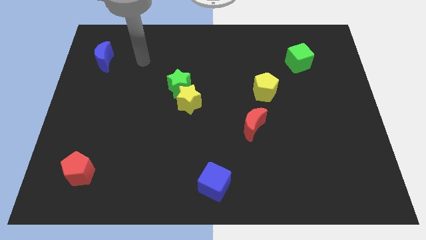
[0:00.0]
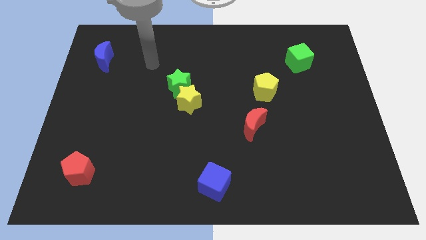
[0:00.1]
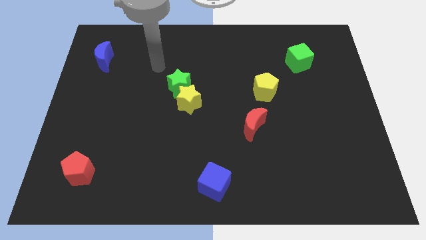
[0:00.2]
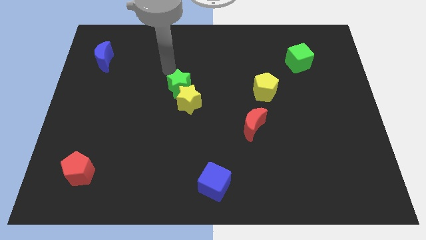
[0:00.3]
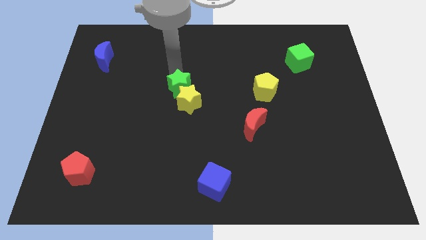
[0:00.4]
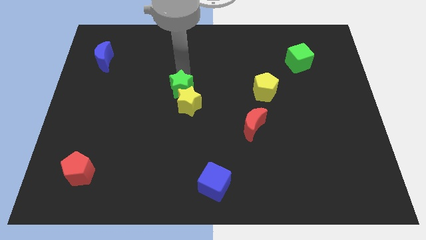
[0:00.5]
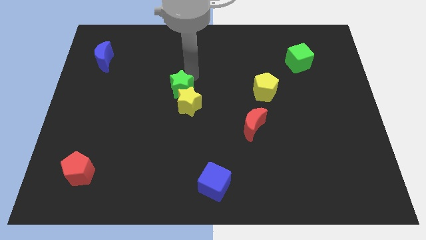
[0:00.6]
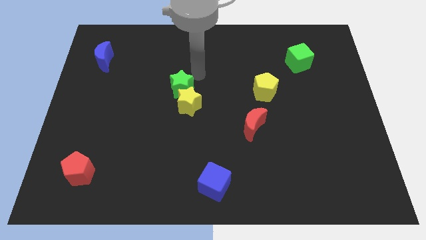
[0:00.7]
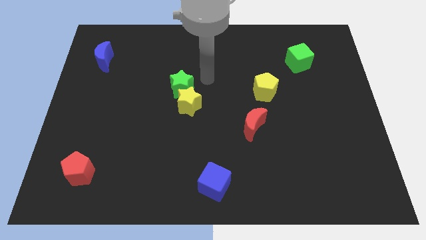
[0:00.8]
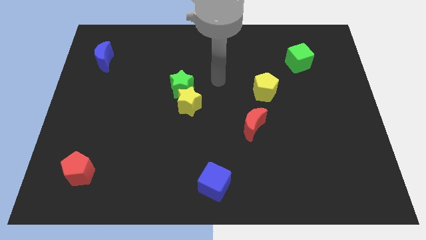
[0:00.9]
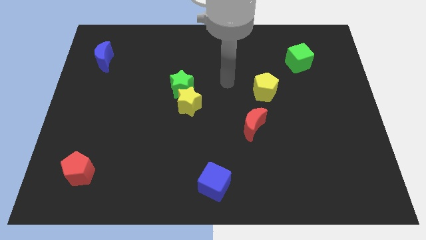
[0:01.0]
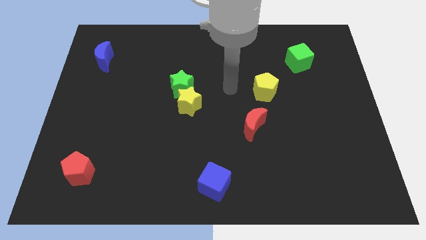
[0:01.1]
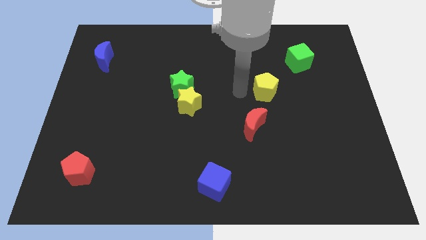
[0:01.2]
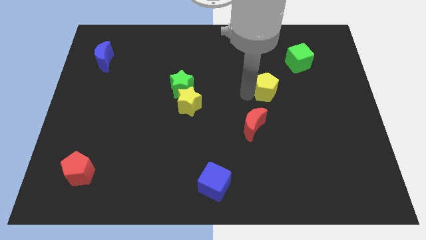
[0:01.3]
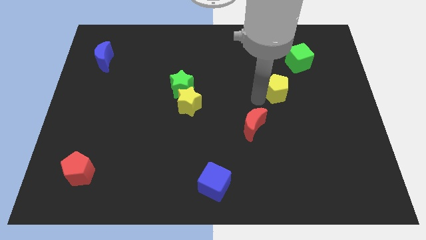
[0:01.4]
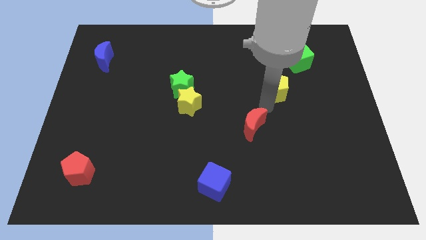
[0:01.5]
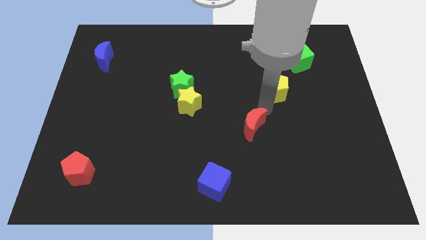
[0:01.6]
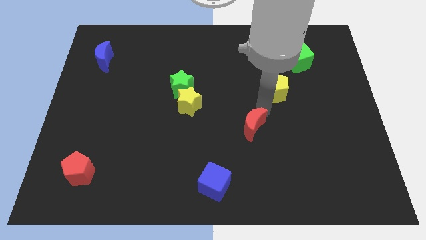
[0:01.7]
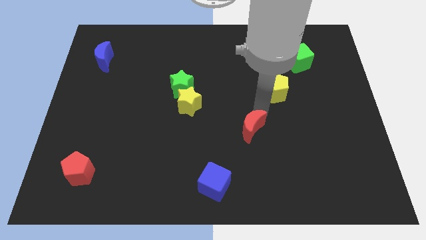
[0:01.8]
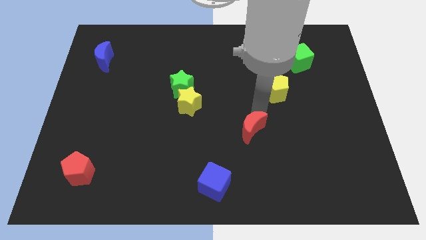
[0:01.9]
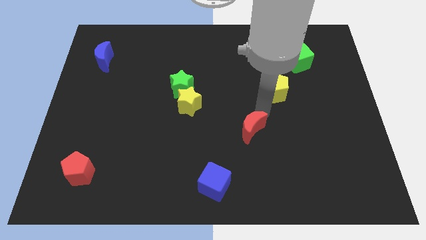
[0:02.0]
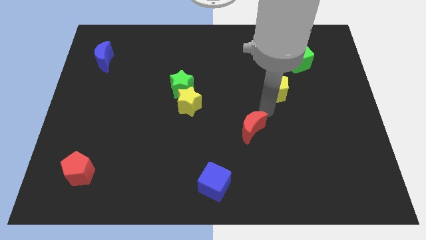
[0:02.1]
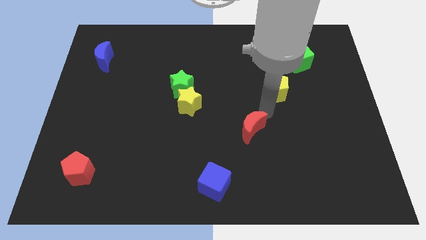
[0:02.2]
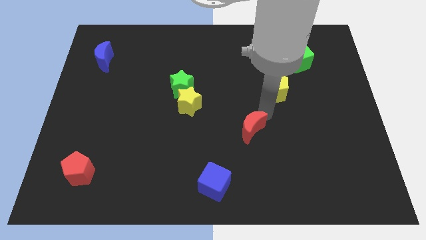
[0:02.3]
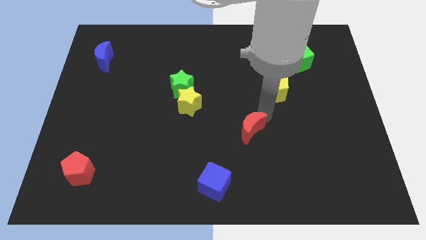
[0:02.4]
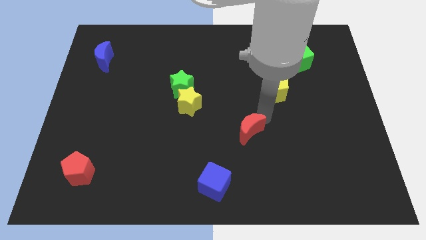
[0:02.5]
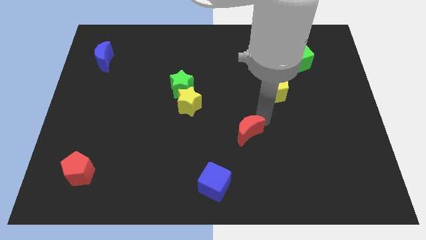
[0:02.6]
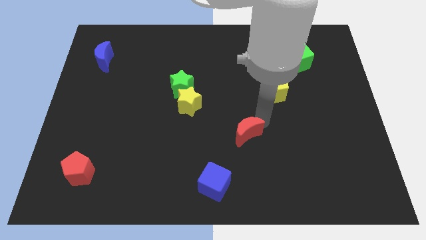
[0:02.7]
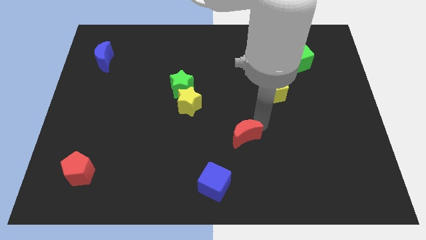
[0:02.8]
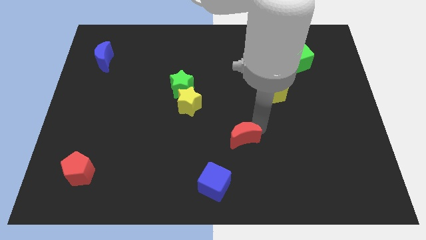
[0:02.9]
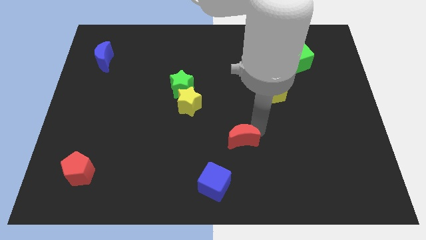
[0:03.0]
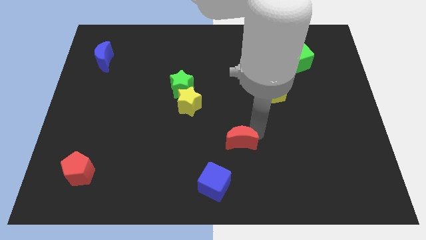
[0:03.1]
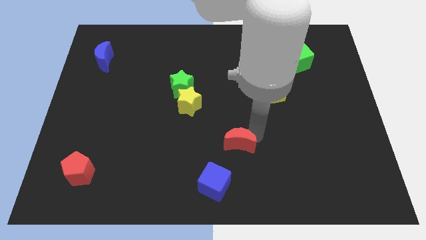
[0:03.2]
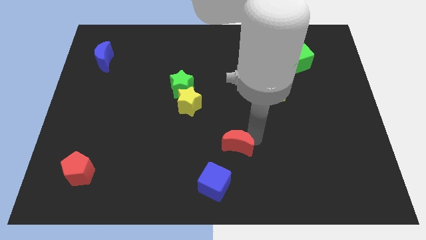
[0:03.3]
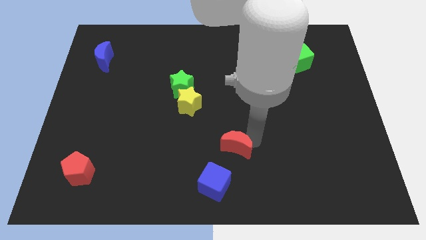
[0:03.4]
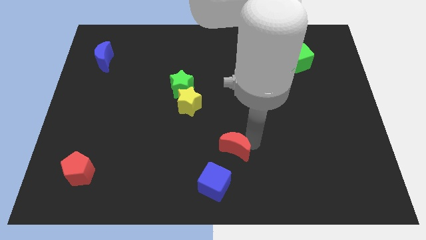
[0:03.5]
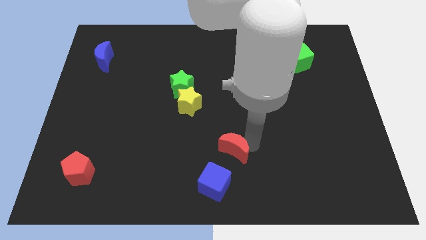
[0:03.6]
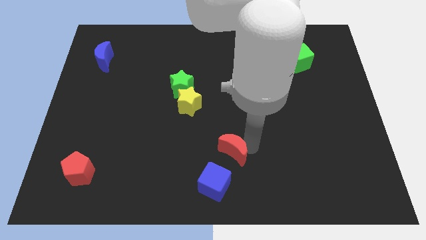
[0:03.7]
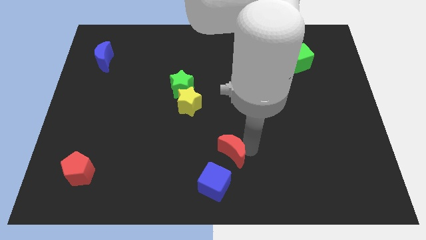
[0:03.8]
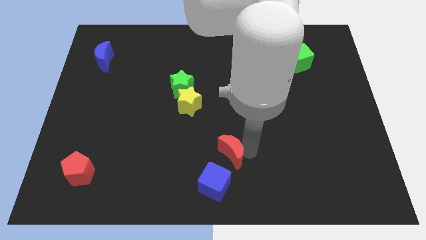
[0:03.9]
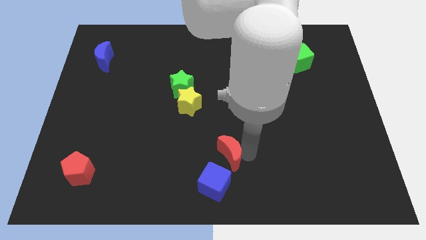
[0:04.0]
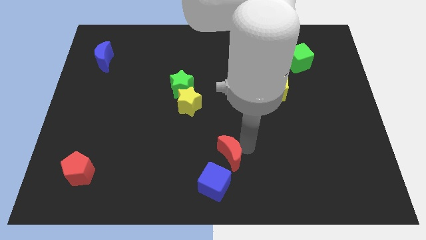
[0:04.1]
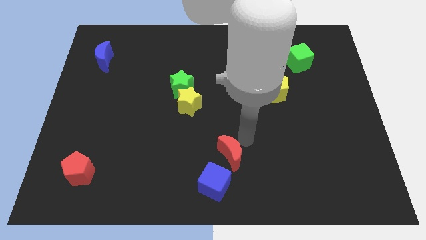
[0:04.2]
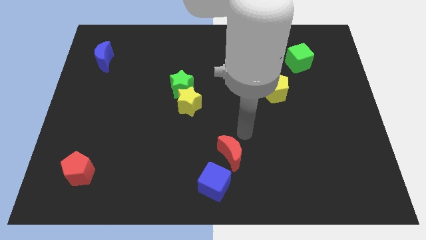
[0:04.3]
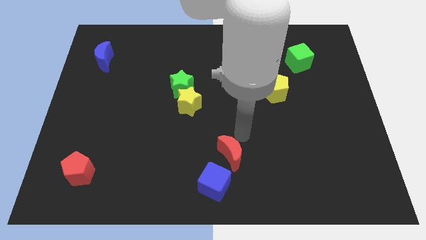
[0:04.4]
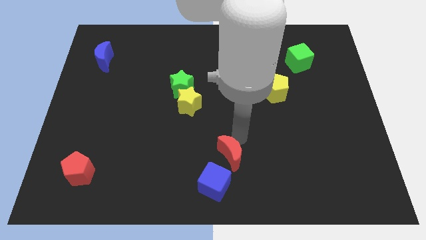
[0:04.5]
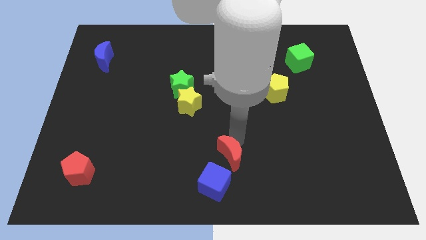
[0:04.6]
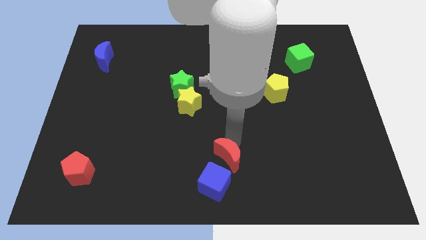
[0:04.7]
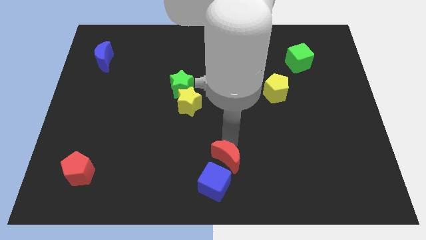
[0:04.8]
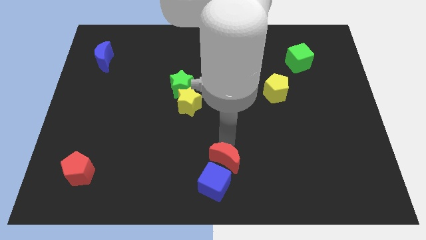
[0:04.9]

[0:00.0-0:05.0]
slide the red moon next to the blue cube

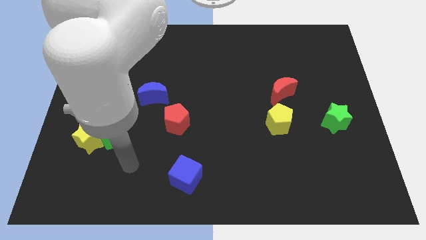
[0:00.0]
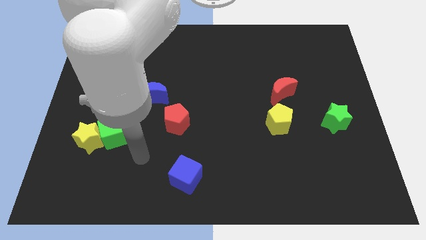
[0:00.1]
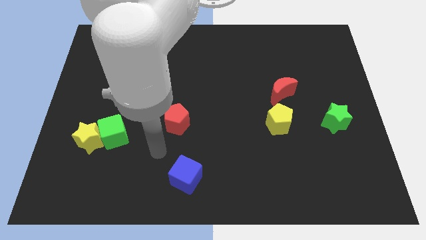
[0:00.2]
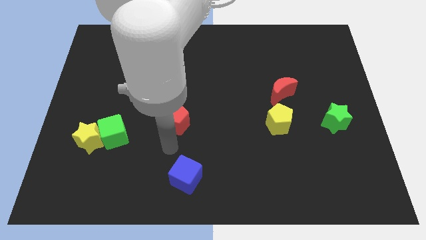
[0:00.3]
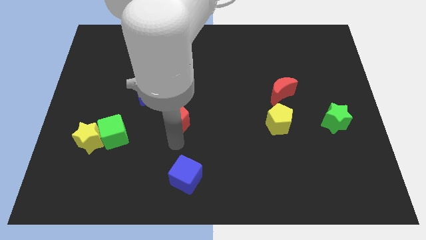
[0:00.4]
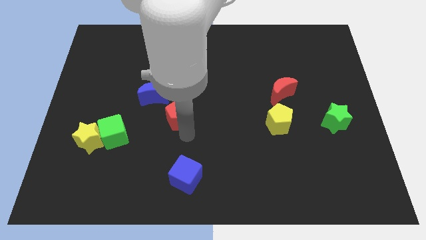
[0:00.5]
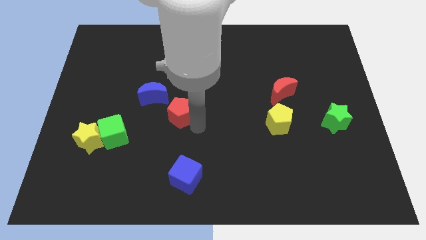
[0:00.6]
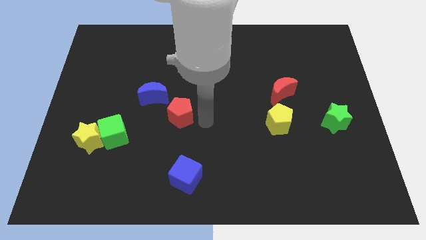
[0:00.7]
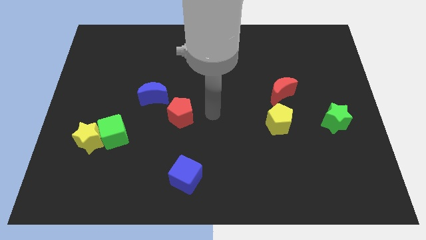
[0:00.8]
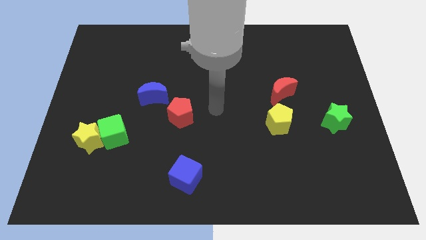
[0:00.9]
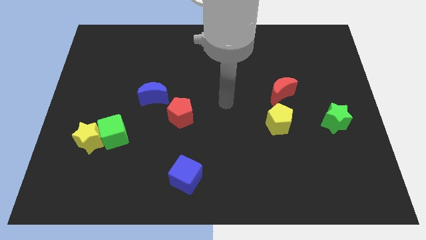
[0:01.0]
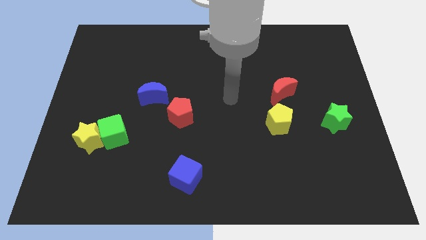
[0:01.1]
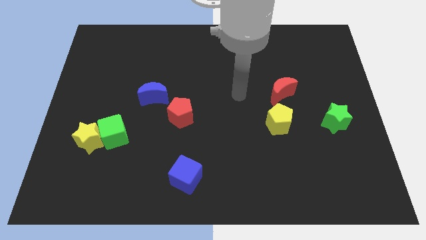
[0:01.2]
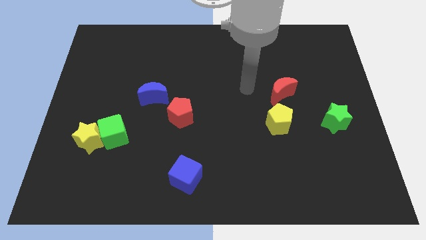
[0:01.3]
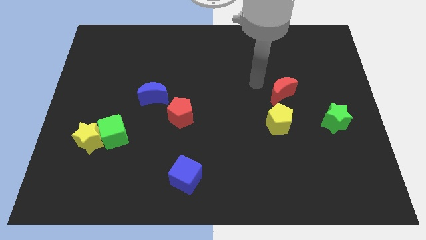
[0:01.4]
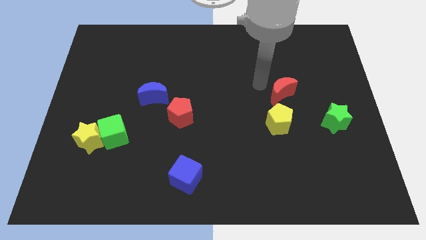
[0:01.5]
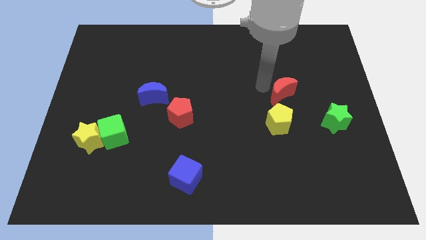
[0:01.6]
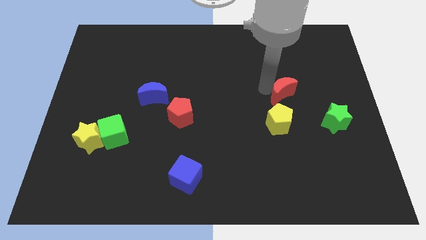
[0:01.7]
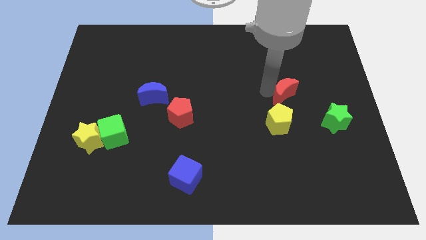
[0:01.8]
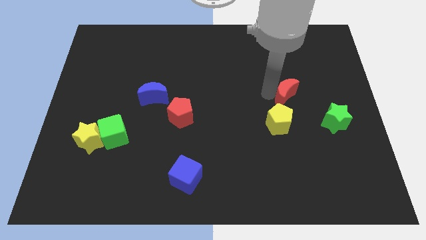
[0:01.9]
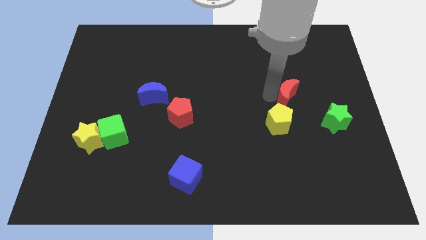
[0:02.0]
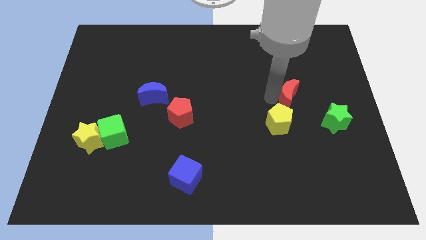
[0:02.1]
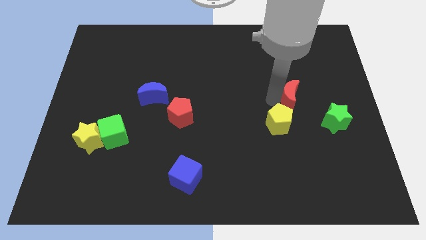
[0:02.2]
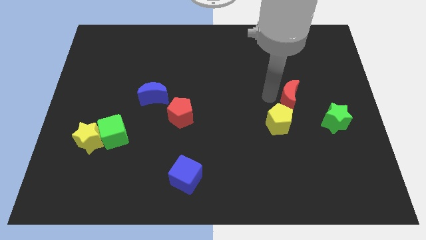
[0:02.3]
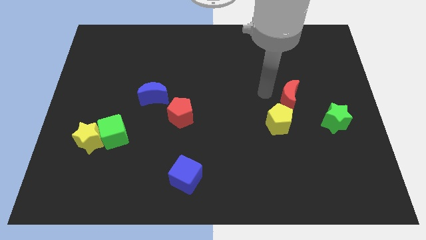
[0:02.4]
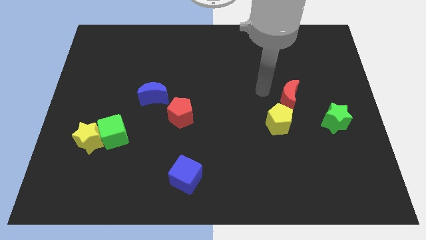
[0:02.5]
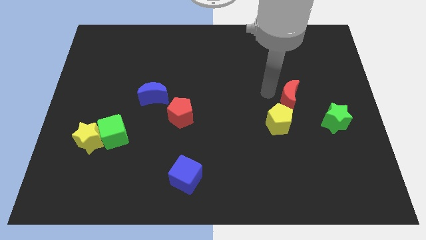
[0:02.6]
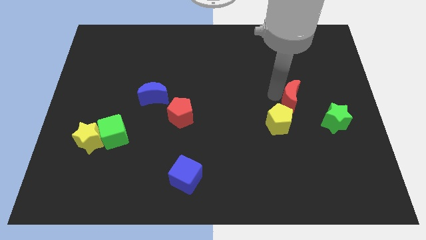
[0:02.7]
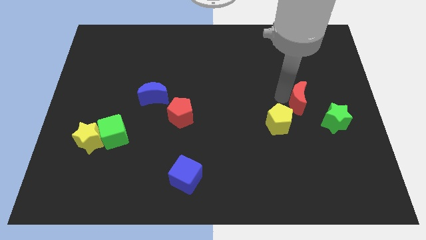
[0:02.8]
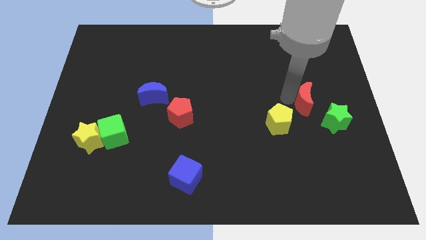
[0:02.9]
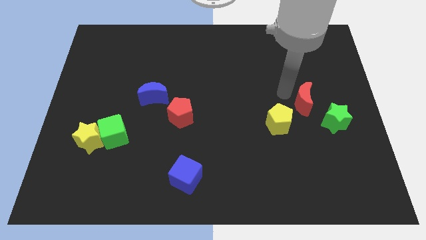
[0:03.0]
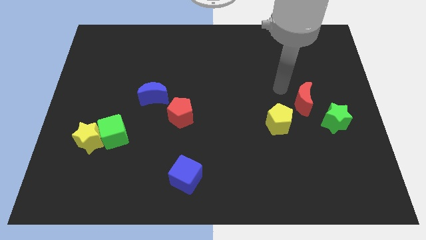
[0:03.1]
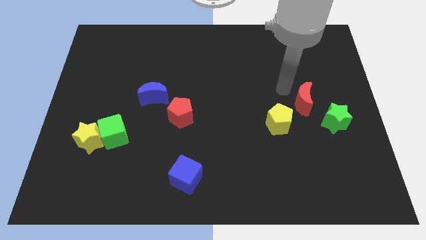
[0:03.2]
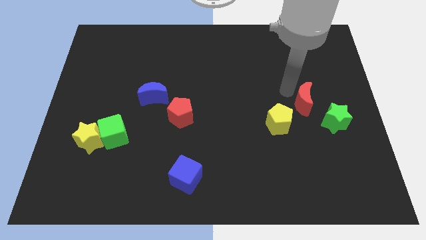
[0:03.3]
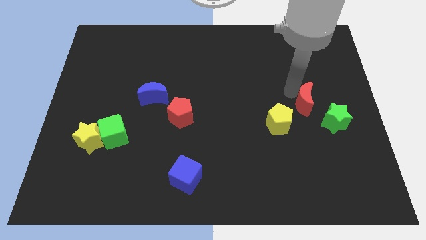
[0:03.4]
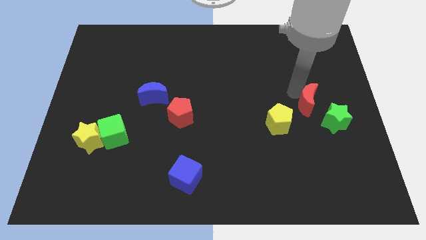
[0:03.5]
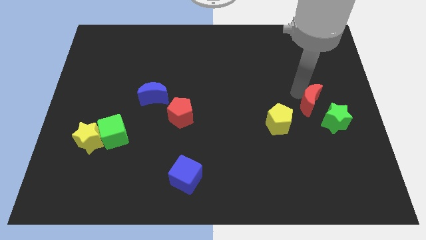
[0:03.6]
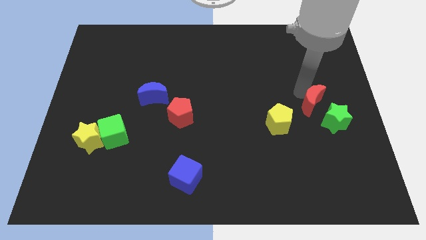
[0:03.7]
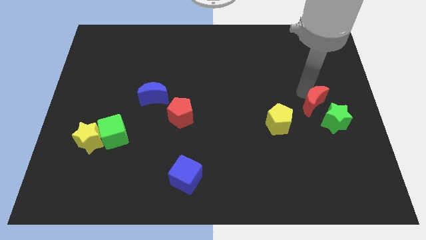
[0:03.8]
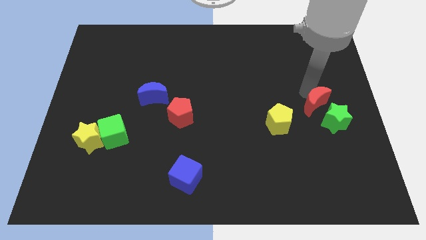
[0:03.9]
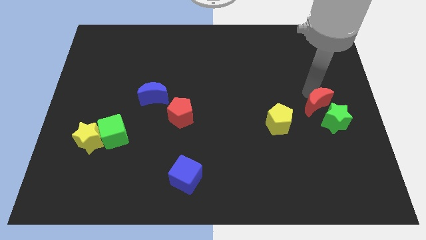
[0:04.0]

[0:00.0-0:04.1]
slide the red moon to the green star
